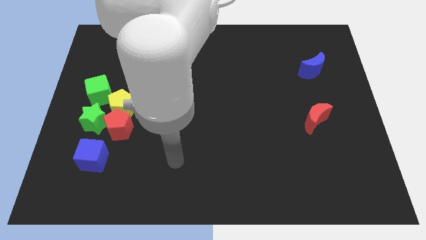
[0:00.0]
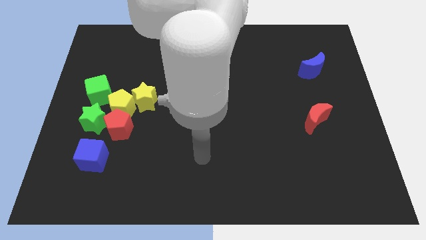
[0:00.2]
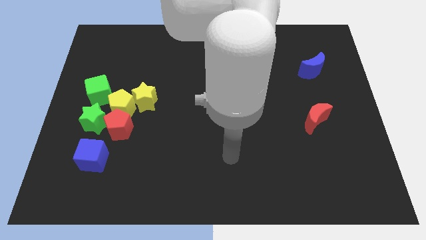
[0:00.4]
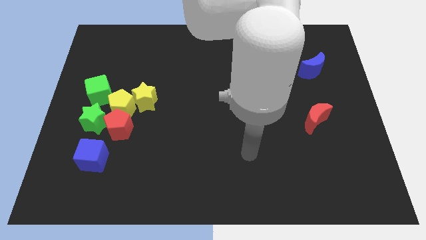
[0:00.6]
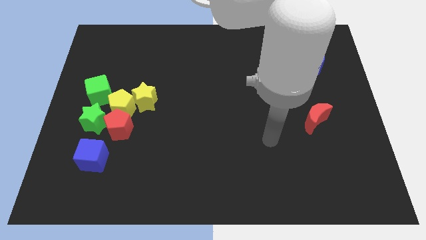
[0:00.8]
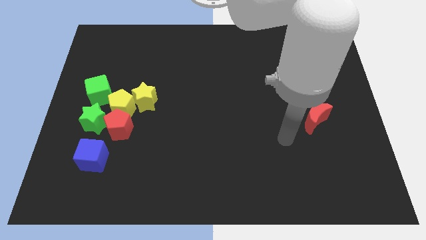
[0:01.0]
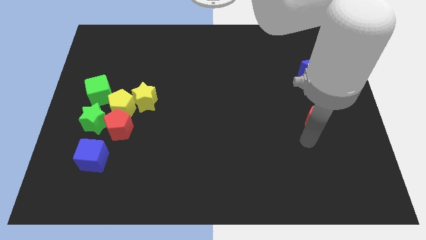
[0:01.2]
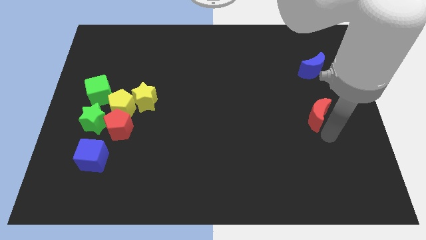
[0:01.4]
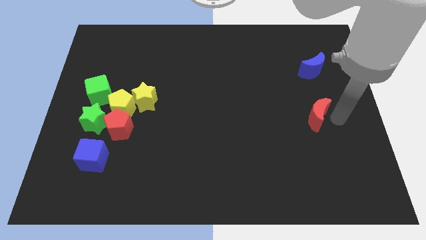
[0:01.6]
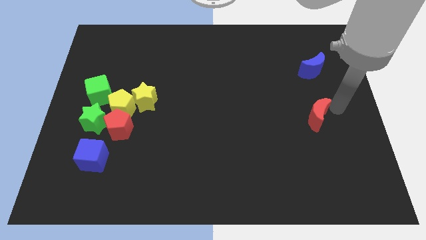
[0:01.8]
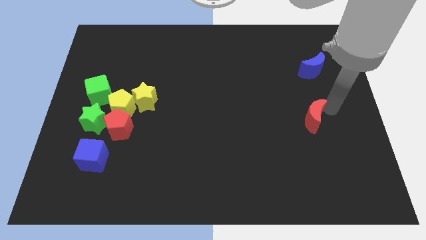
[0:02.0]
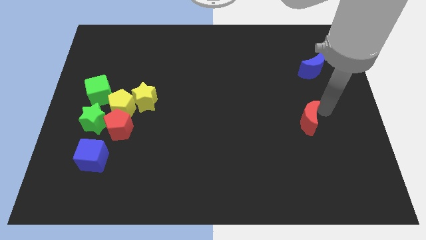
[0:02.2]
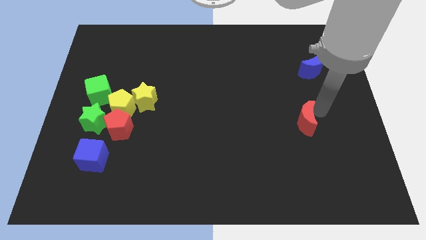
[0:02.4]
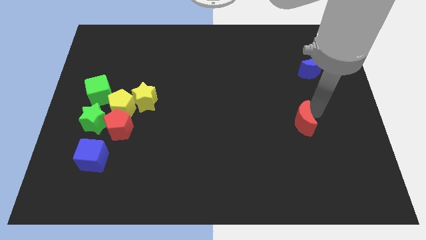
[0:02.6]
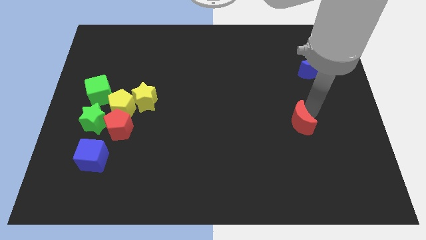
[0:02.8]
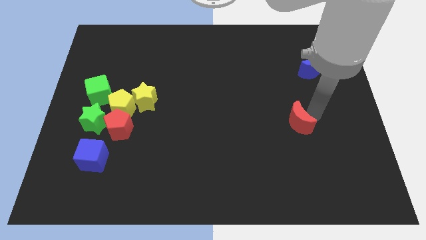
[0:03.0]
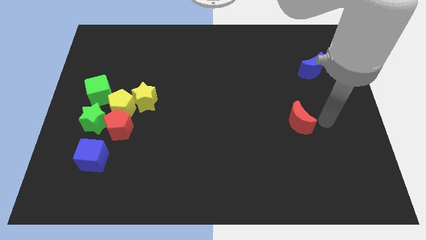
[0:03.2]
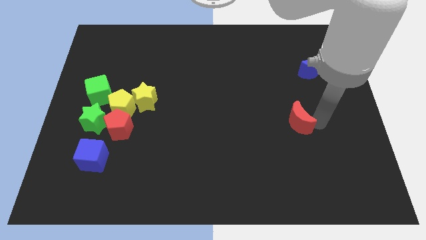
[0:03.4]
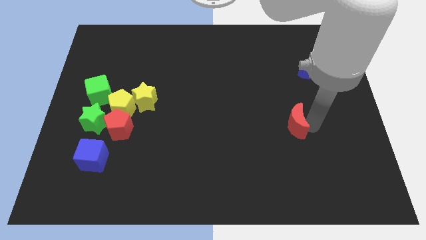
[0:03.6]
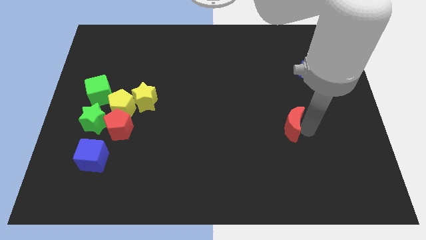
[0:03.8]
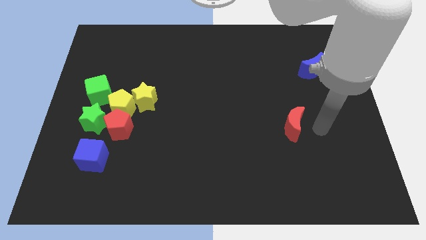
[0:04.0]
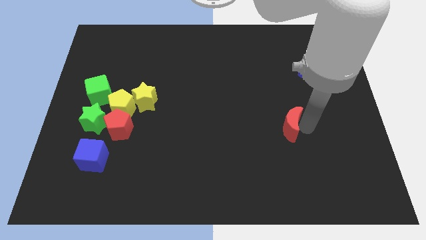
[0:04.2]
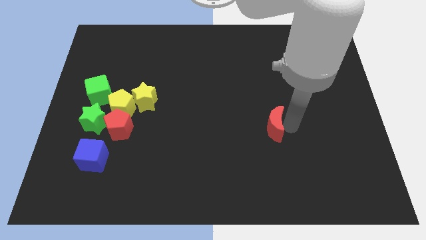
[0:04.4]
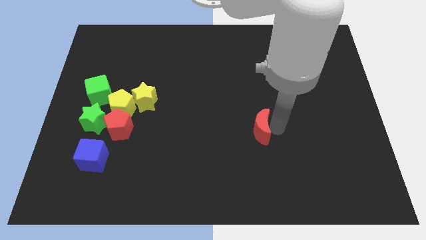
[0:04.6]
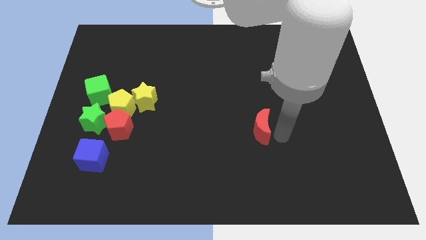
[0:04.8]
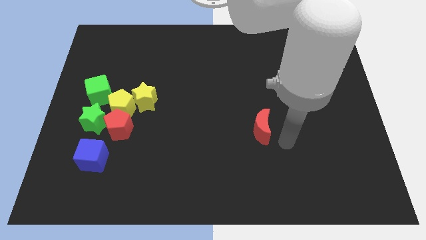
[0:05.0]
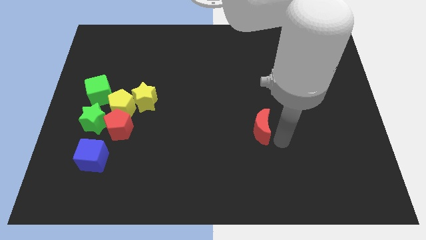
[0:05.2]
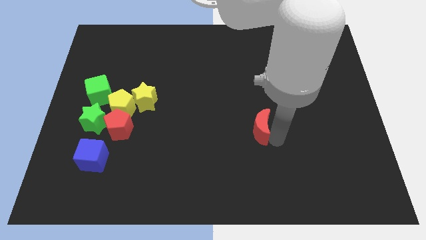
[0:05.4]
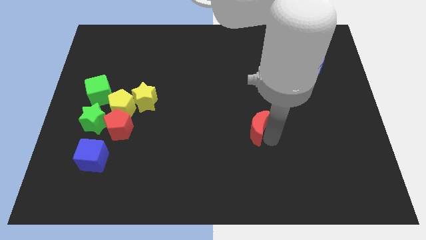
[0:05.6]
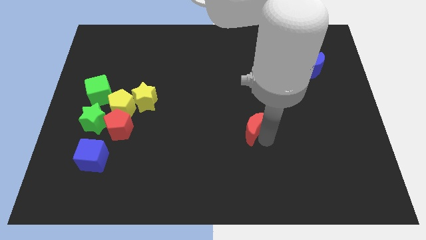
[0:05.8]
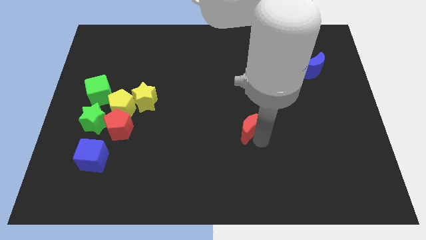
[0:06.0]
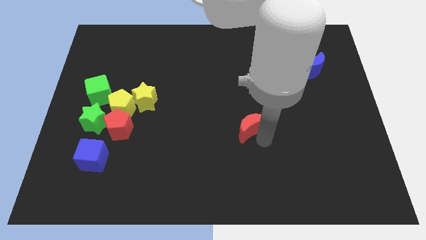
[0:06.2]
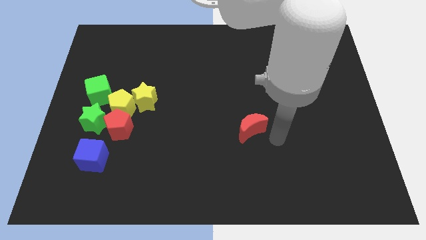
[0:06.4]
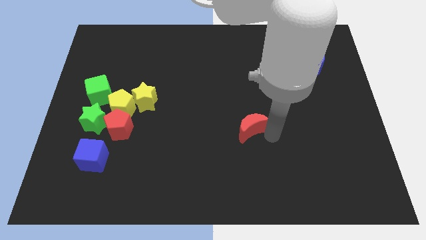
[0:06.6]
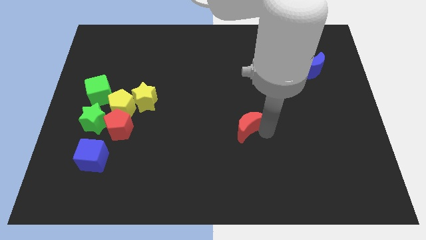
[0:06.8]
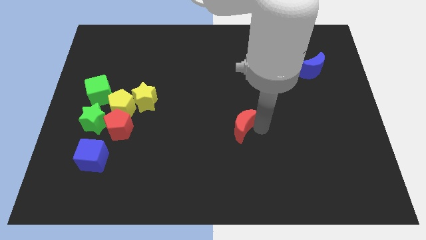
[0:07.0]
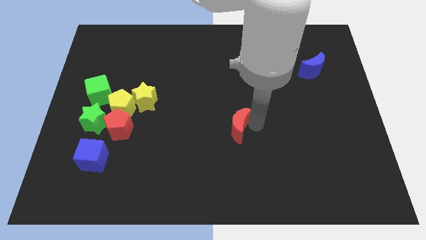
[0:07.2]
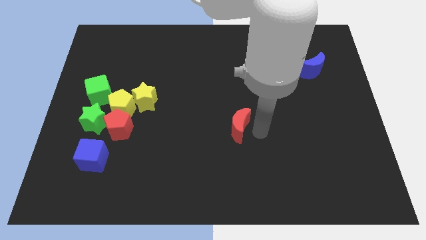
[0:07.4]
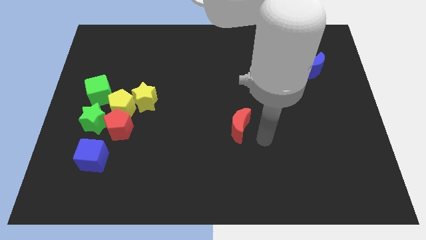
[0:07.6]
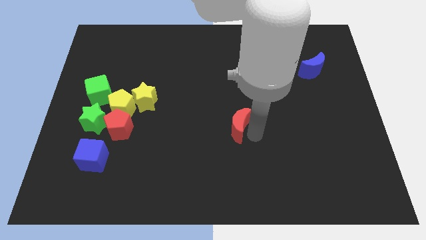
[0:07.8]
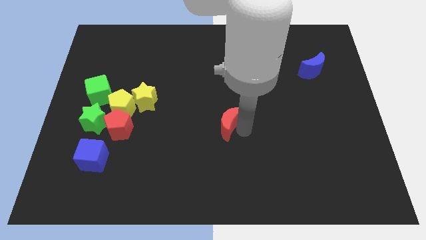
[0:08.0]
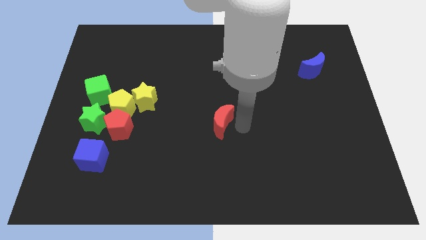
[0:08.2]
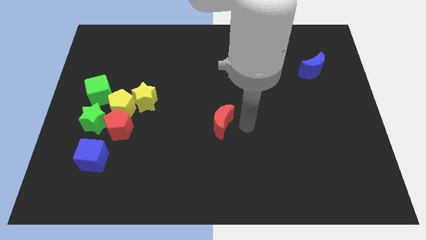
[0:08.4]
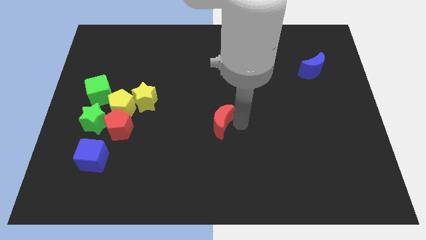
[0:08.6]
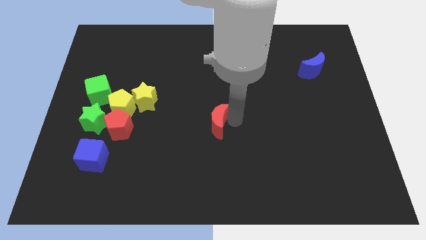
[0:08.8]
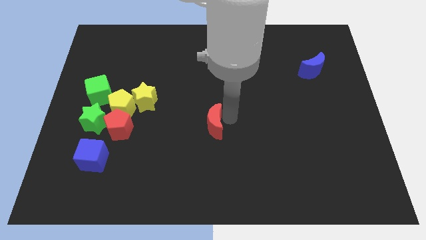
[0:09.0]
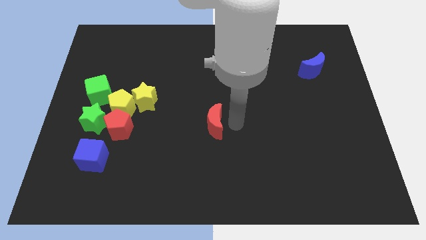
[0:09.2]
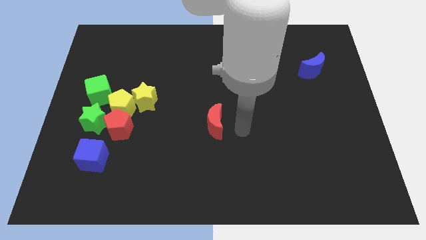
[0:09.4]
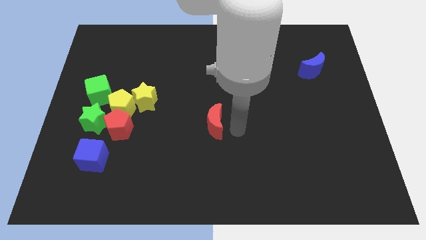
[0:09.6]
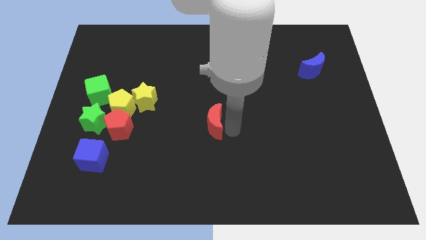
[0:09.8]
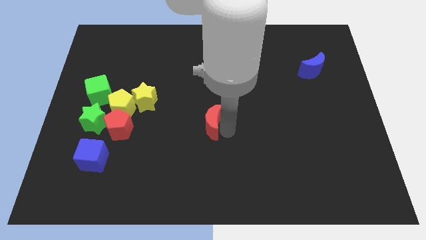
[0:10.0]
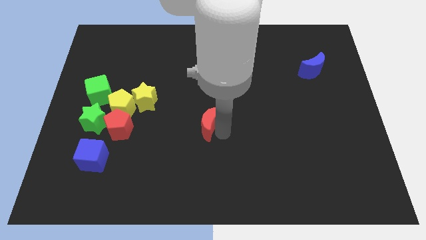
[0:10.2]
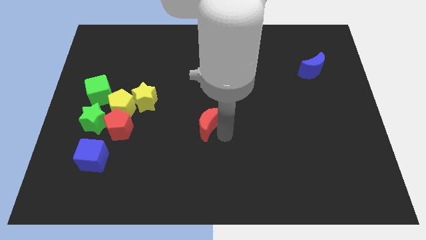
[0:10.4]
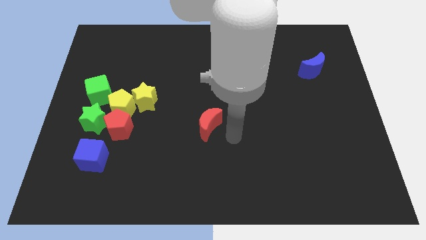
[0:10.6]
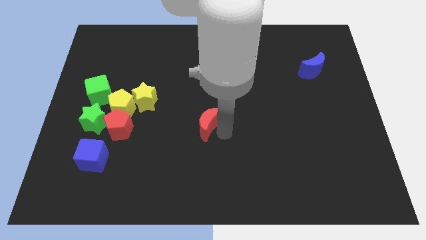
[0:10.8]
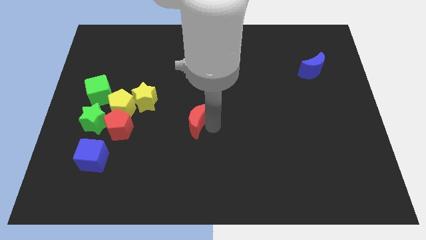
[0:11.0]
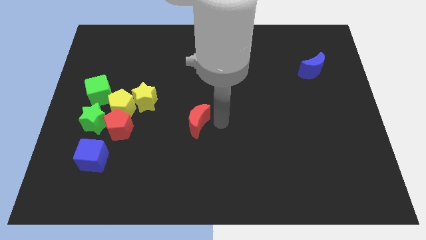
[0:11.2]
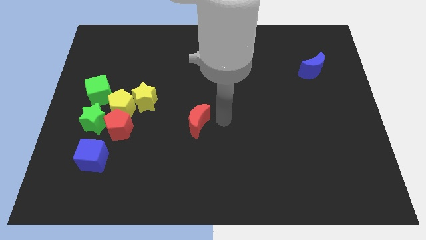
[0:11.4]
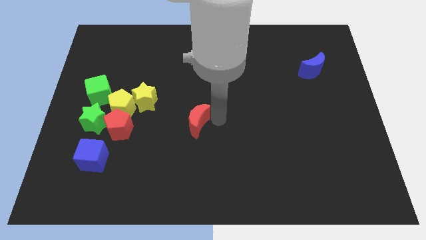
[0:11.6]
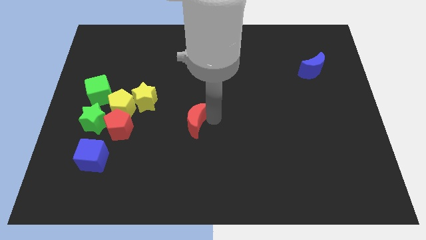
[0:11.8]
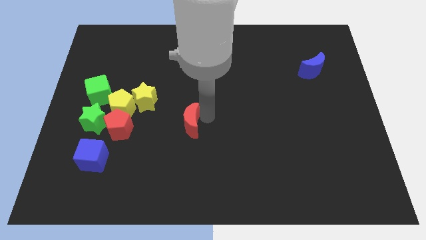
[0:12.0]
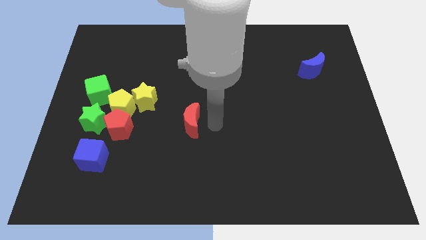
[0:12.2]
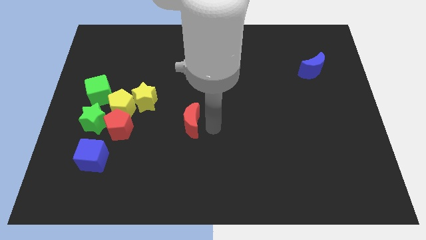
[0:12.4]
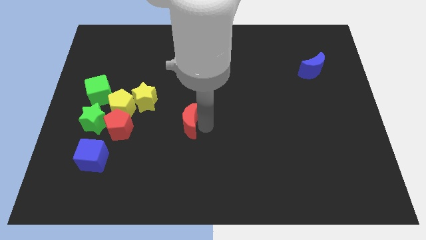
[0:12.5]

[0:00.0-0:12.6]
put the red moon to the bottom right side of the yellow star

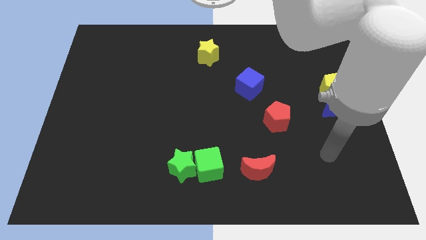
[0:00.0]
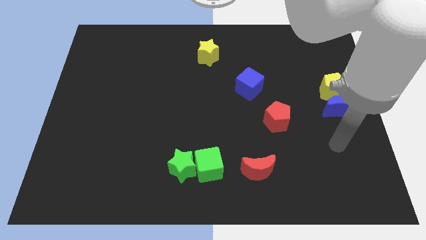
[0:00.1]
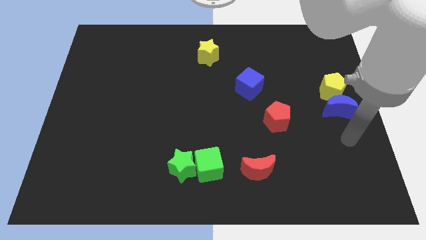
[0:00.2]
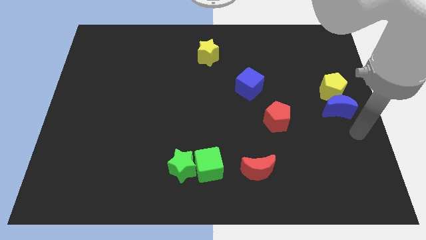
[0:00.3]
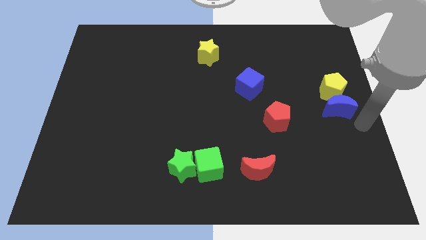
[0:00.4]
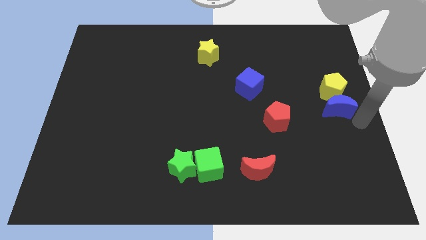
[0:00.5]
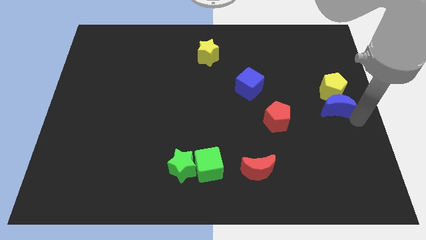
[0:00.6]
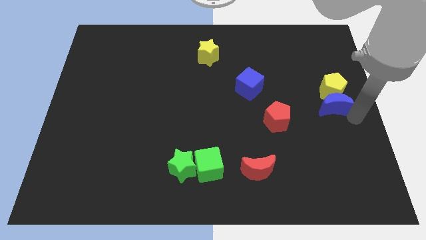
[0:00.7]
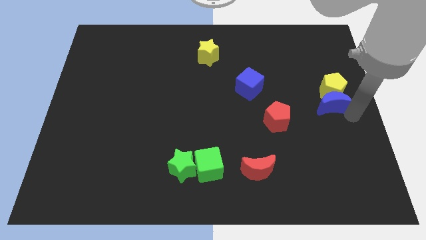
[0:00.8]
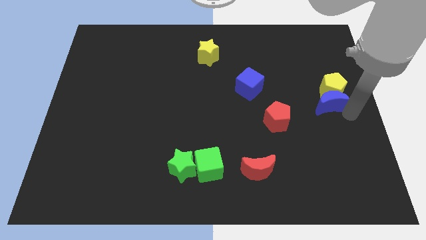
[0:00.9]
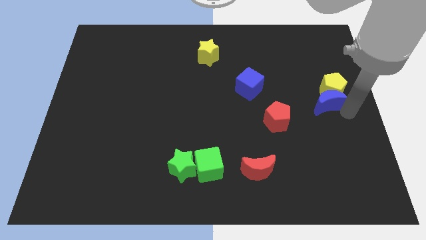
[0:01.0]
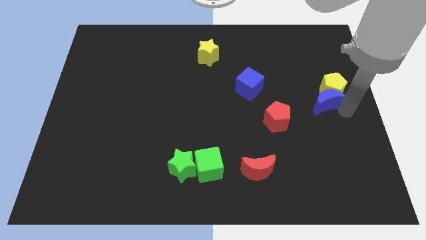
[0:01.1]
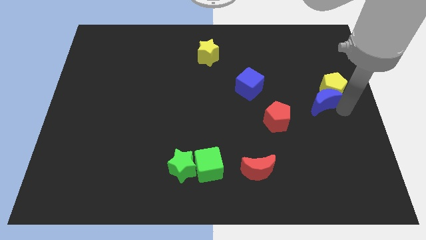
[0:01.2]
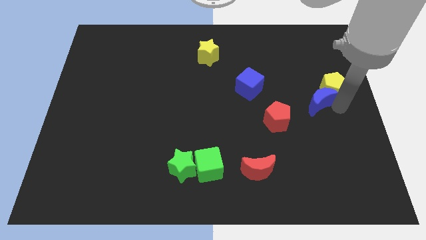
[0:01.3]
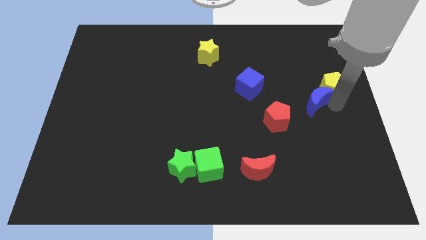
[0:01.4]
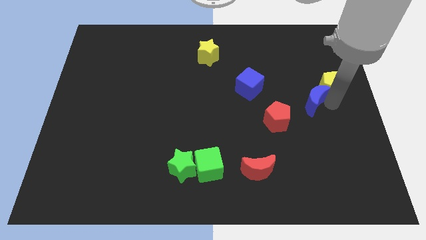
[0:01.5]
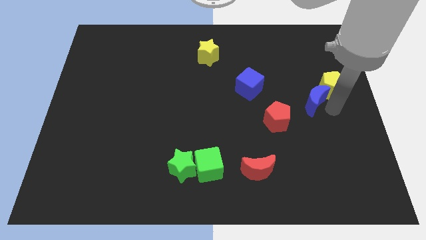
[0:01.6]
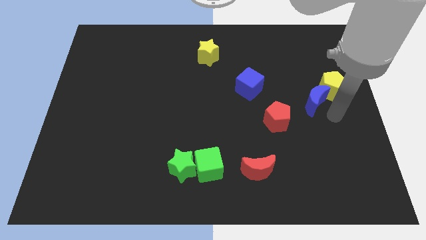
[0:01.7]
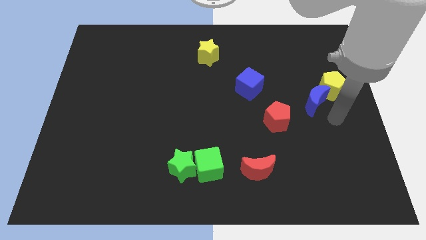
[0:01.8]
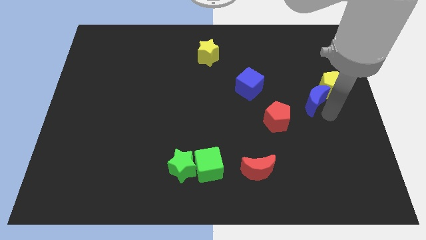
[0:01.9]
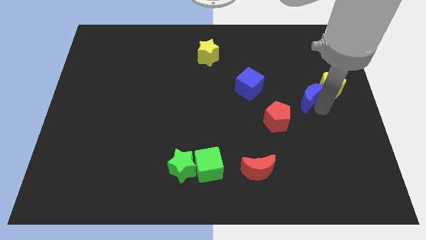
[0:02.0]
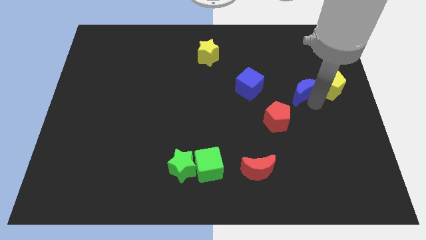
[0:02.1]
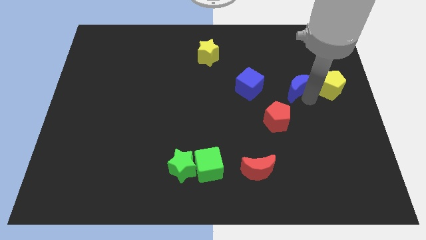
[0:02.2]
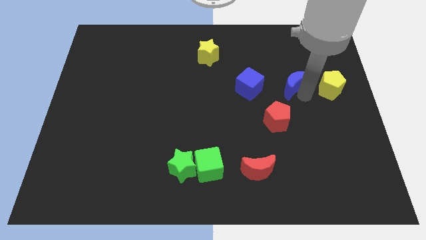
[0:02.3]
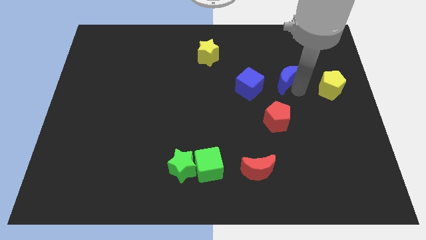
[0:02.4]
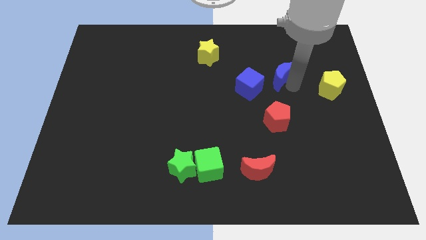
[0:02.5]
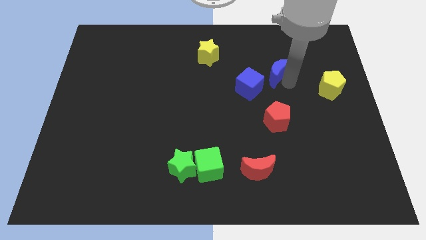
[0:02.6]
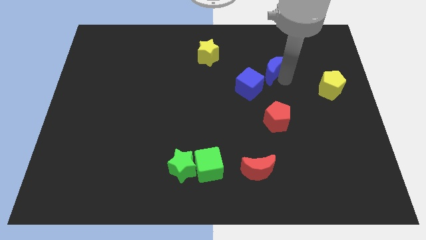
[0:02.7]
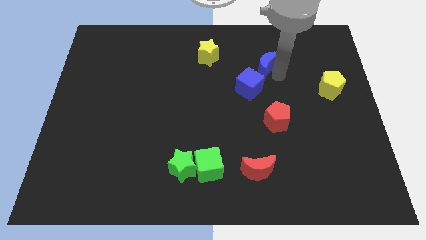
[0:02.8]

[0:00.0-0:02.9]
put the blue moon to the top side of the blue cube
